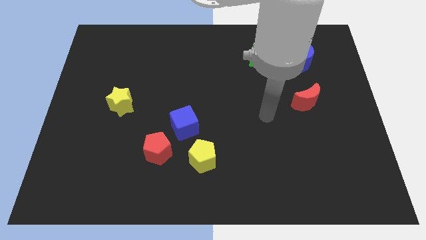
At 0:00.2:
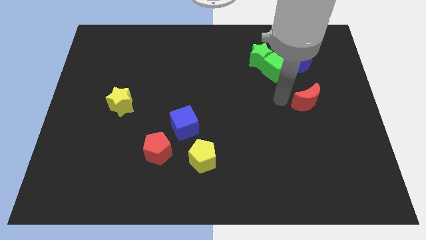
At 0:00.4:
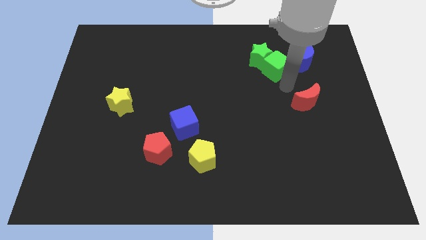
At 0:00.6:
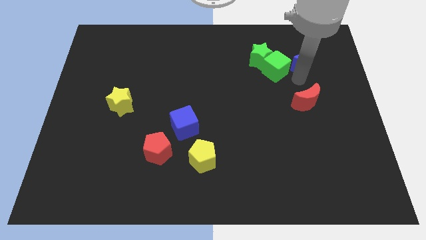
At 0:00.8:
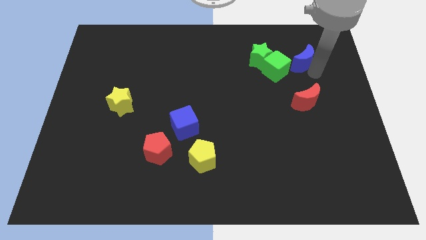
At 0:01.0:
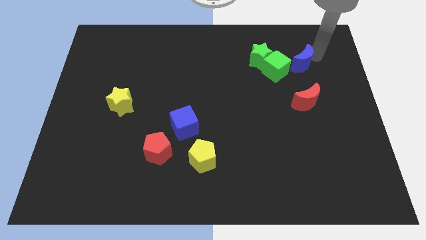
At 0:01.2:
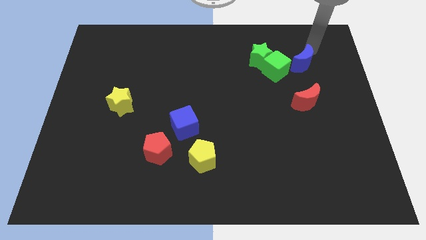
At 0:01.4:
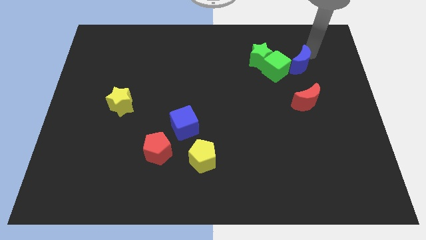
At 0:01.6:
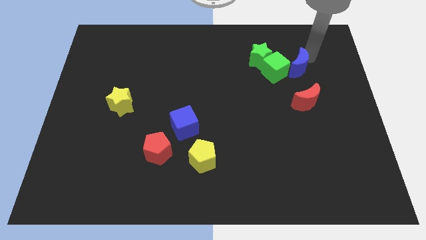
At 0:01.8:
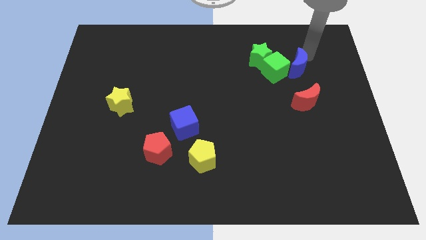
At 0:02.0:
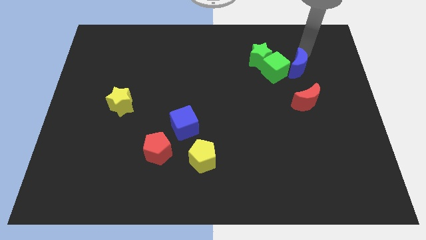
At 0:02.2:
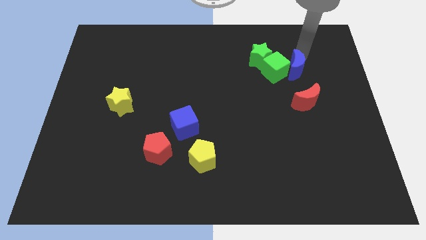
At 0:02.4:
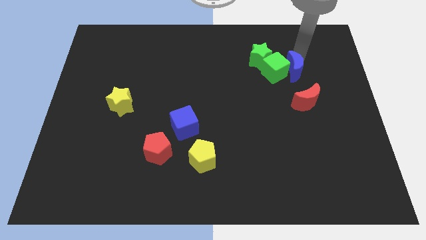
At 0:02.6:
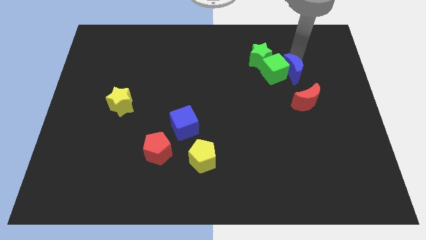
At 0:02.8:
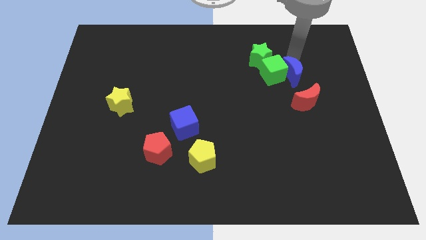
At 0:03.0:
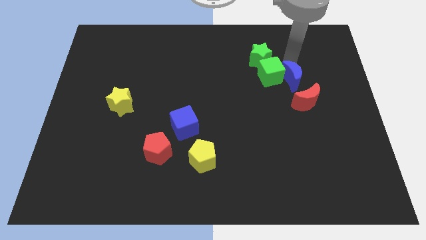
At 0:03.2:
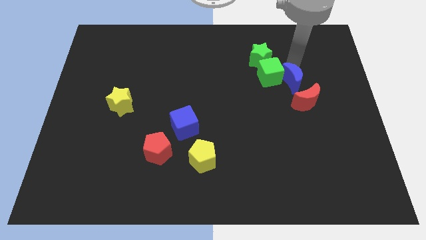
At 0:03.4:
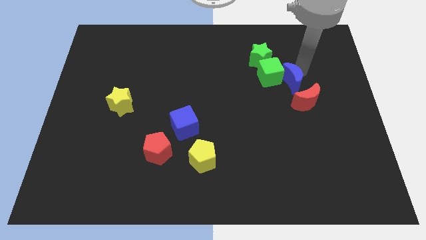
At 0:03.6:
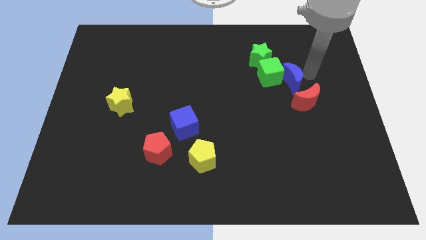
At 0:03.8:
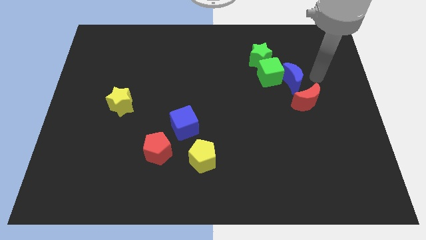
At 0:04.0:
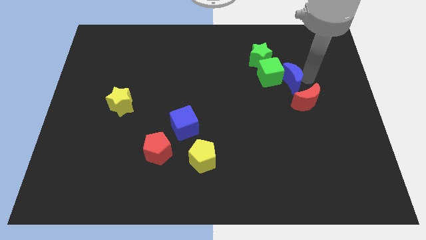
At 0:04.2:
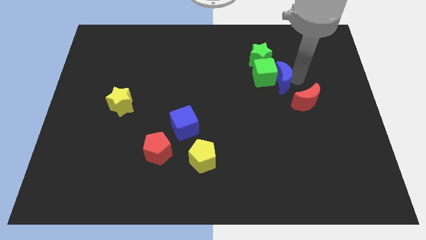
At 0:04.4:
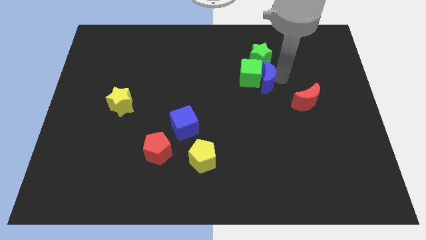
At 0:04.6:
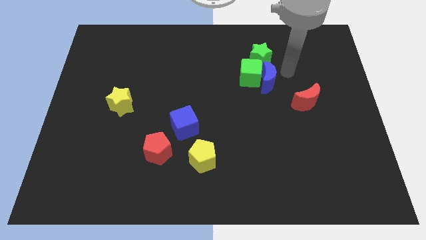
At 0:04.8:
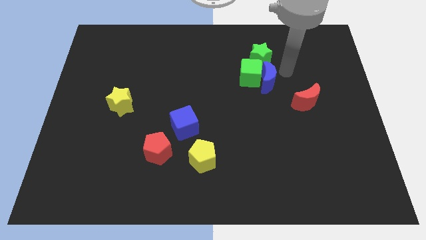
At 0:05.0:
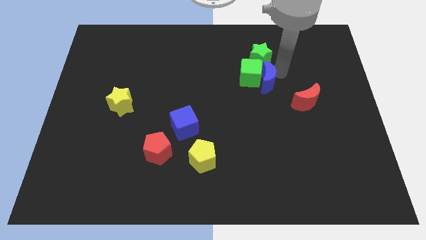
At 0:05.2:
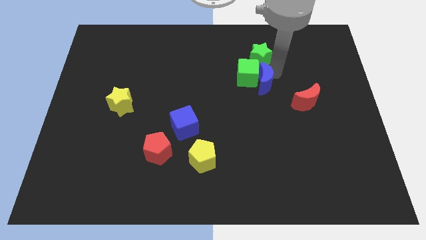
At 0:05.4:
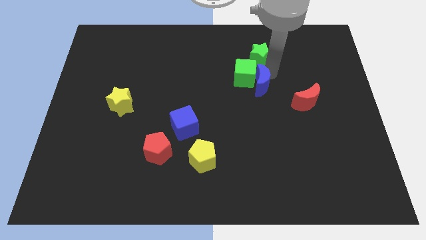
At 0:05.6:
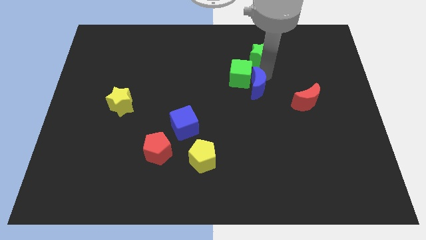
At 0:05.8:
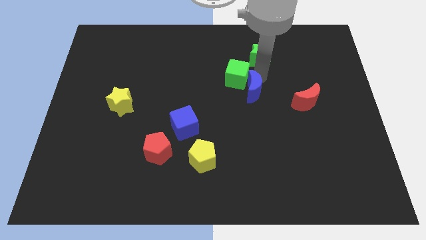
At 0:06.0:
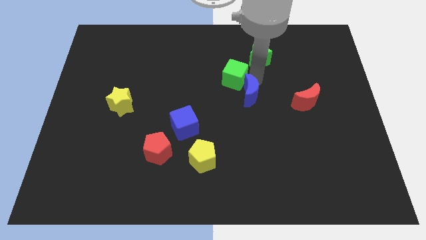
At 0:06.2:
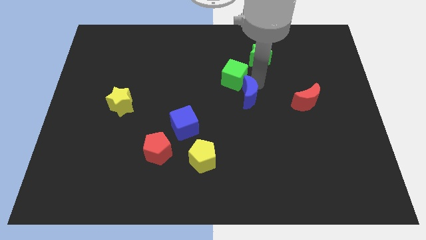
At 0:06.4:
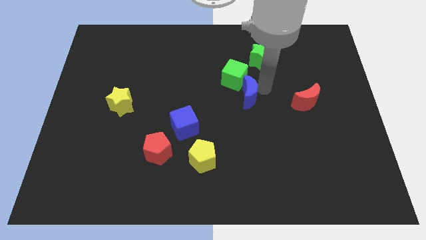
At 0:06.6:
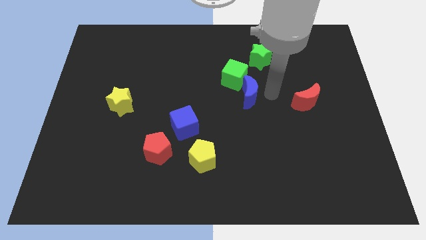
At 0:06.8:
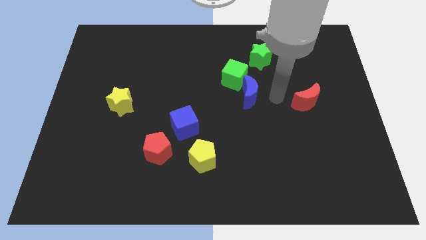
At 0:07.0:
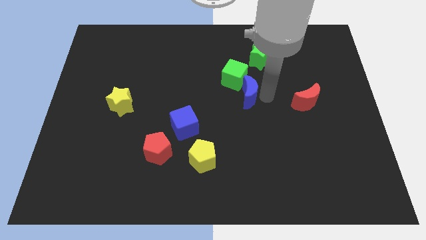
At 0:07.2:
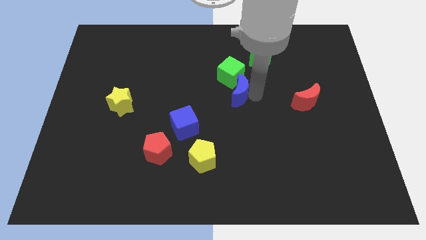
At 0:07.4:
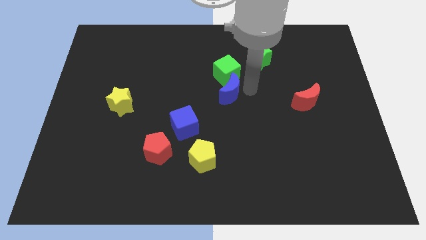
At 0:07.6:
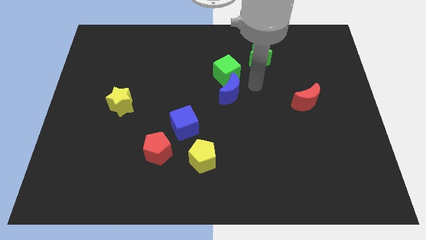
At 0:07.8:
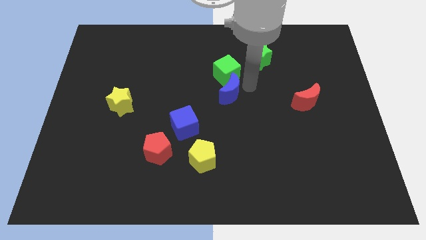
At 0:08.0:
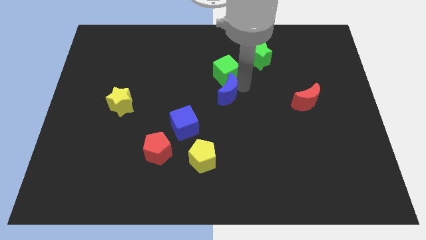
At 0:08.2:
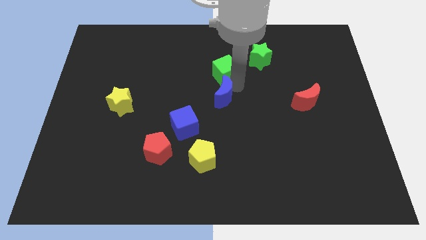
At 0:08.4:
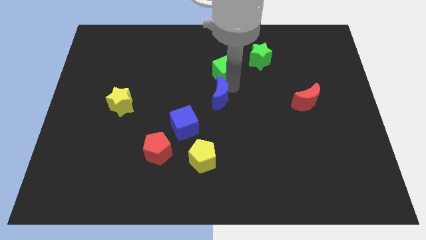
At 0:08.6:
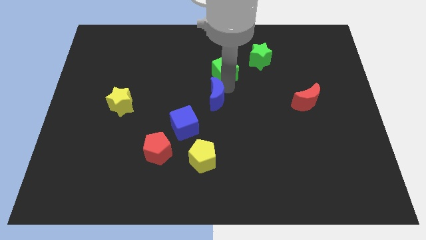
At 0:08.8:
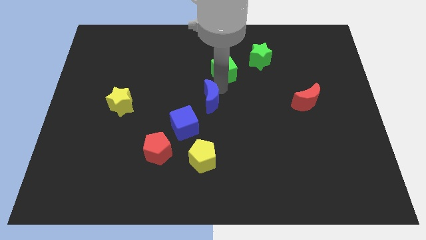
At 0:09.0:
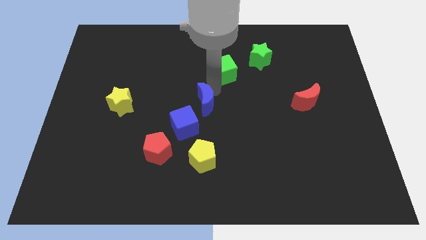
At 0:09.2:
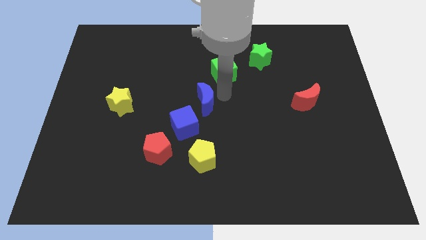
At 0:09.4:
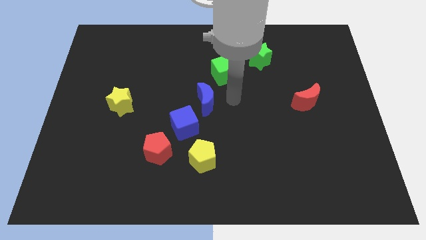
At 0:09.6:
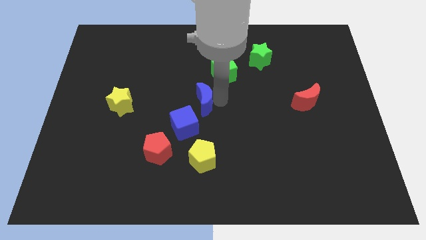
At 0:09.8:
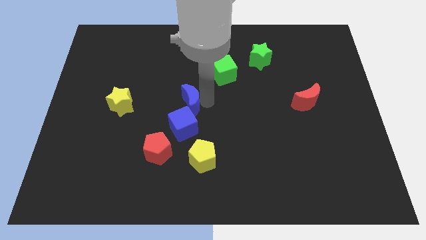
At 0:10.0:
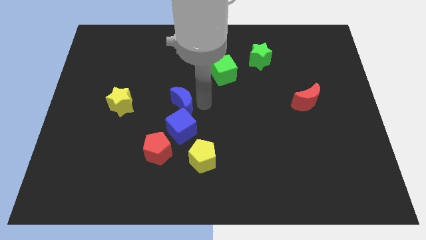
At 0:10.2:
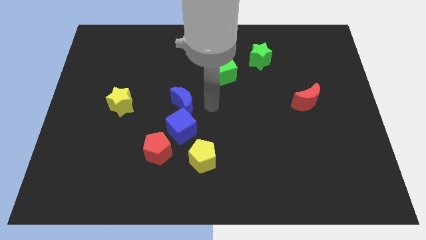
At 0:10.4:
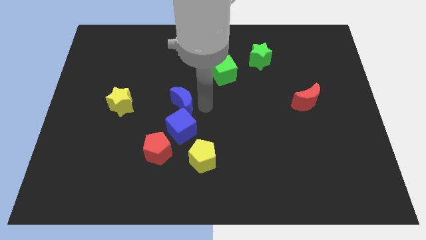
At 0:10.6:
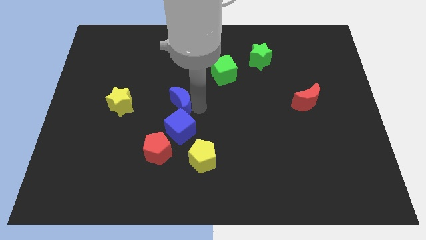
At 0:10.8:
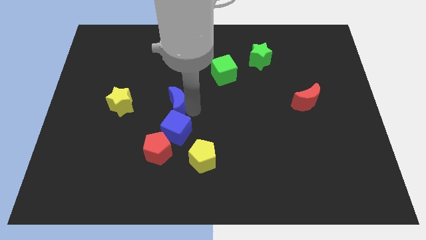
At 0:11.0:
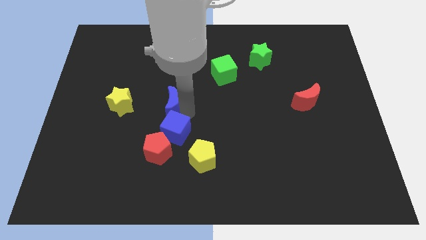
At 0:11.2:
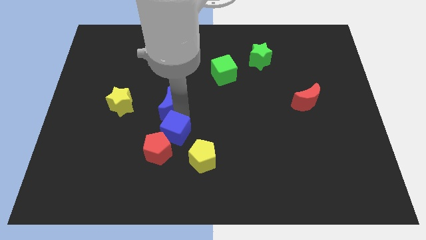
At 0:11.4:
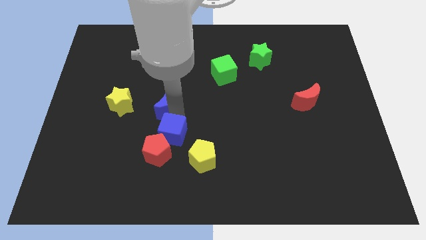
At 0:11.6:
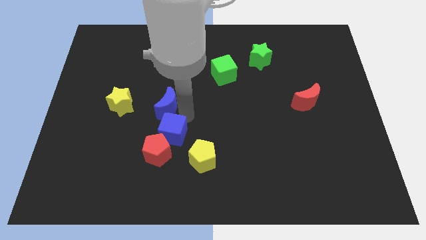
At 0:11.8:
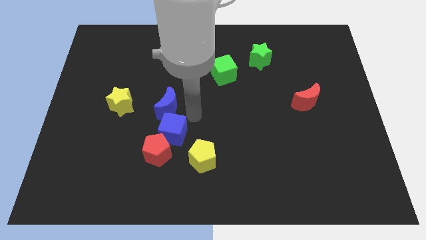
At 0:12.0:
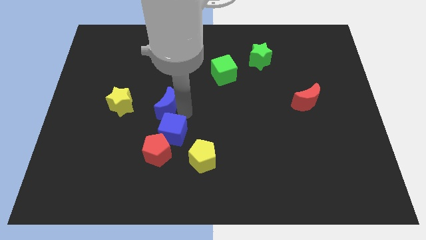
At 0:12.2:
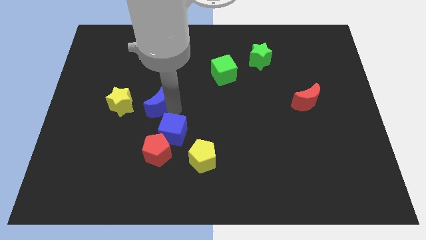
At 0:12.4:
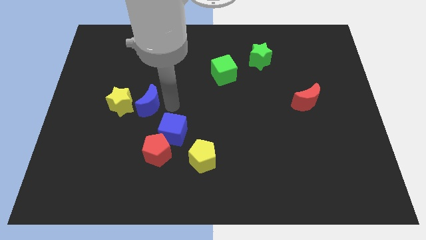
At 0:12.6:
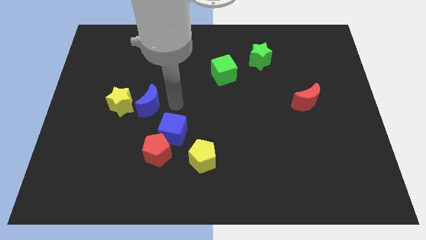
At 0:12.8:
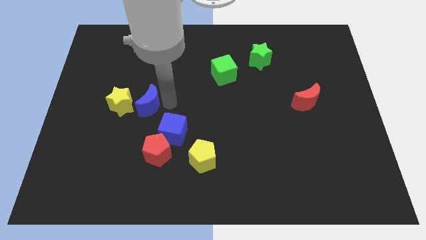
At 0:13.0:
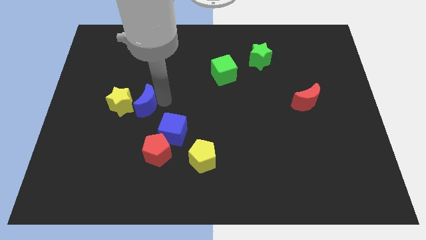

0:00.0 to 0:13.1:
slide the blue moon next to the yellow star

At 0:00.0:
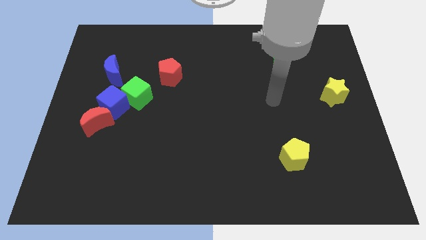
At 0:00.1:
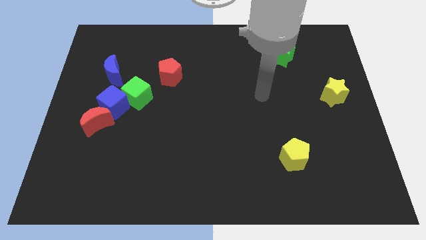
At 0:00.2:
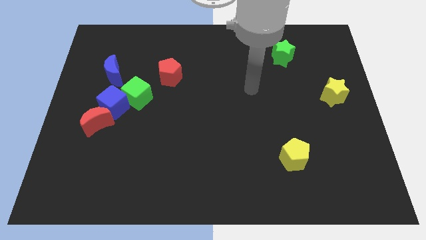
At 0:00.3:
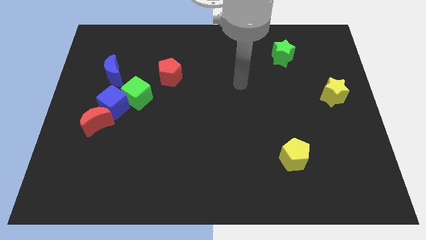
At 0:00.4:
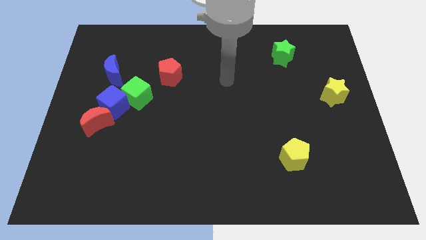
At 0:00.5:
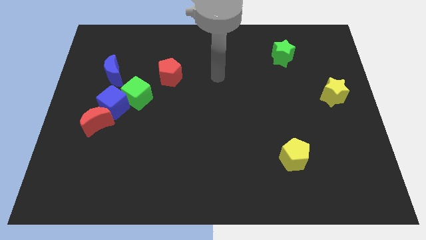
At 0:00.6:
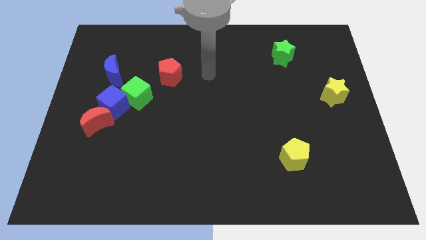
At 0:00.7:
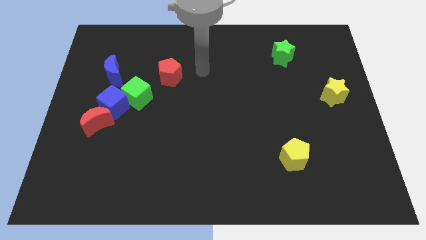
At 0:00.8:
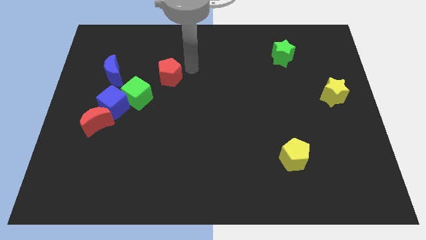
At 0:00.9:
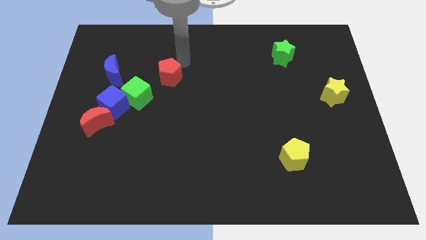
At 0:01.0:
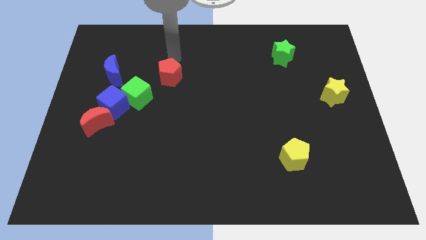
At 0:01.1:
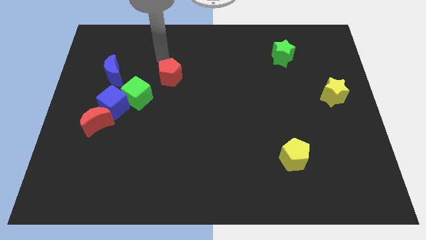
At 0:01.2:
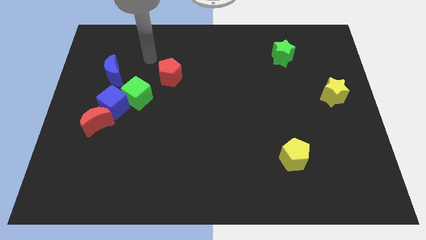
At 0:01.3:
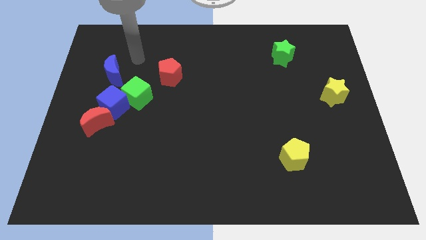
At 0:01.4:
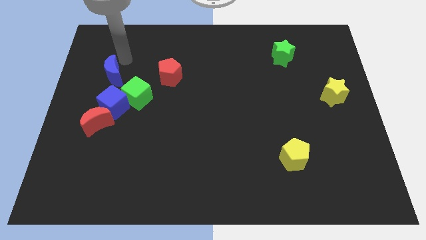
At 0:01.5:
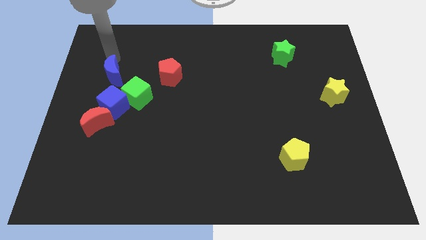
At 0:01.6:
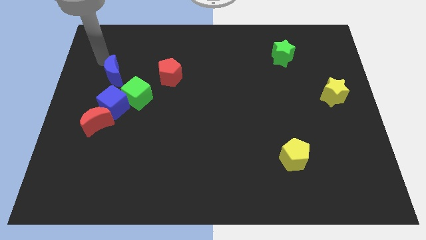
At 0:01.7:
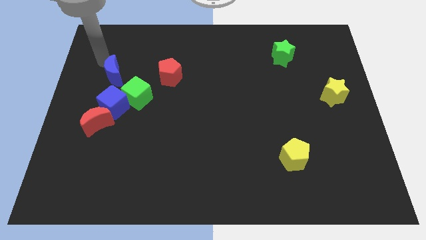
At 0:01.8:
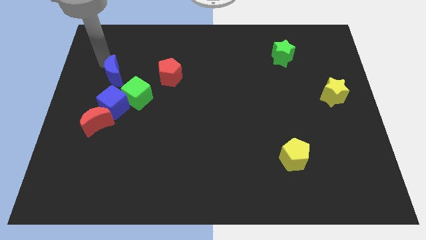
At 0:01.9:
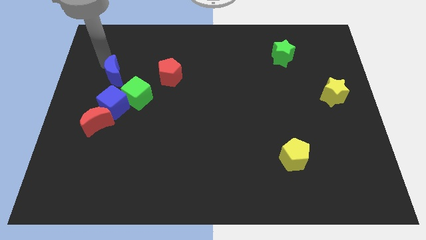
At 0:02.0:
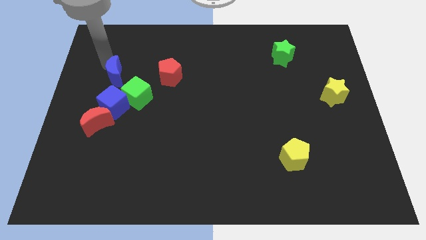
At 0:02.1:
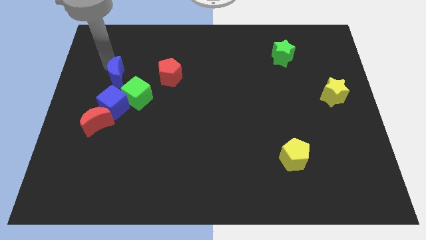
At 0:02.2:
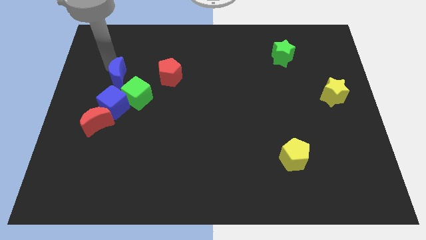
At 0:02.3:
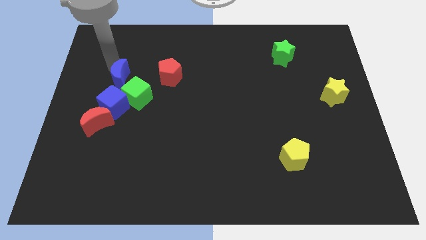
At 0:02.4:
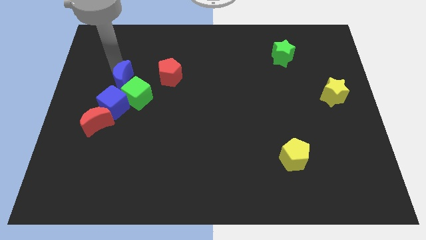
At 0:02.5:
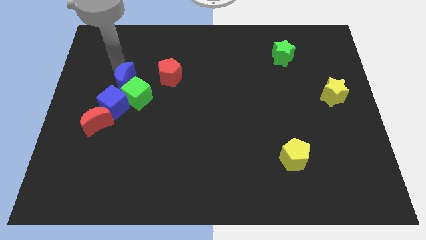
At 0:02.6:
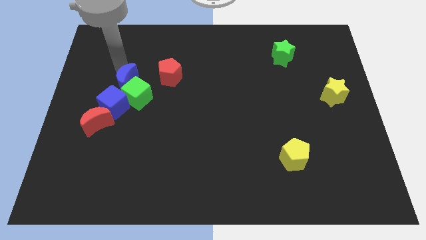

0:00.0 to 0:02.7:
move the blue moon to the green cube
